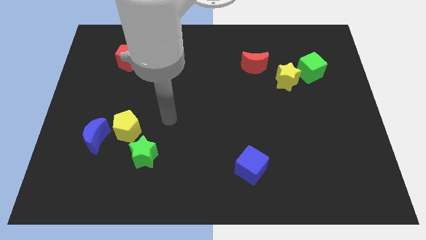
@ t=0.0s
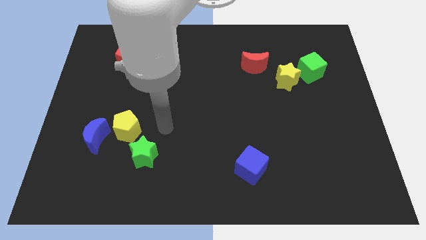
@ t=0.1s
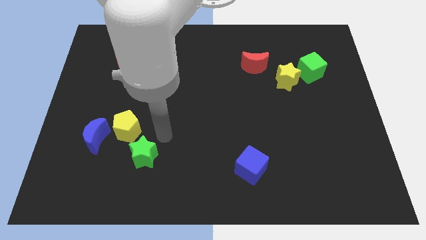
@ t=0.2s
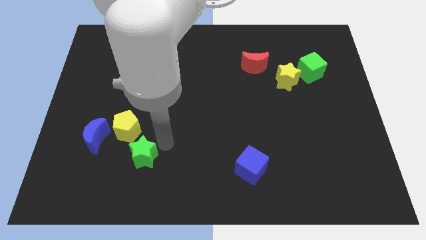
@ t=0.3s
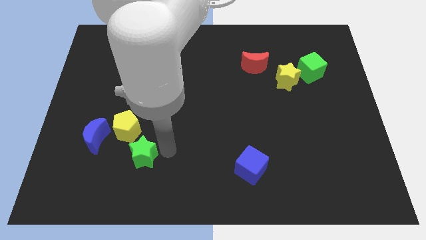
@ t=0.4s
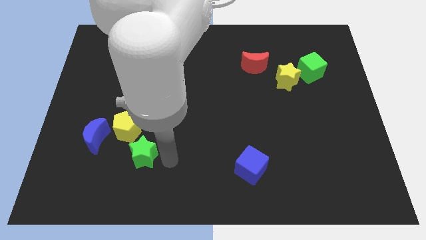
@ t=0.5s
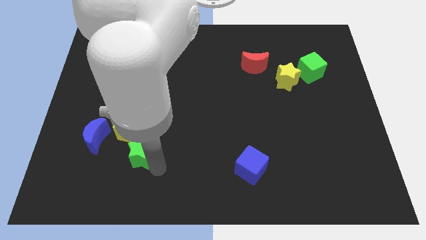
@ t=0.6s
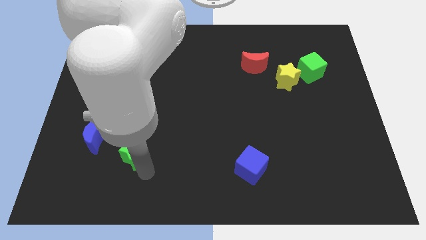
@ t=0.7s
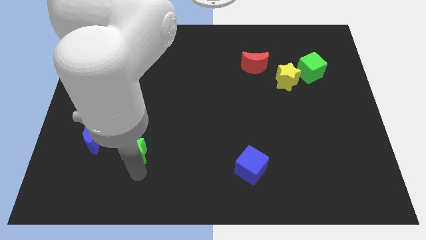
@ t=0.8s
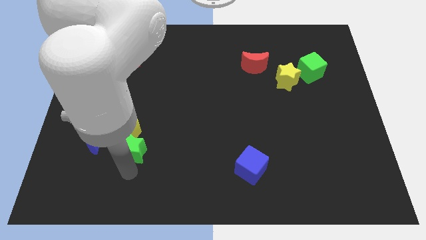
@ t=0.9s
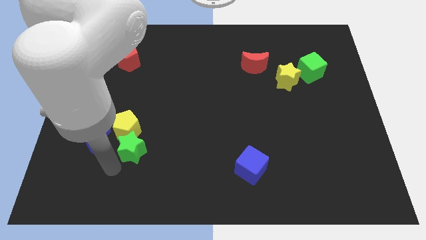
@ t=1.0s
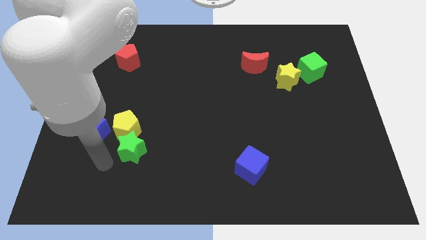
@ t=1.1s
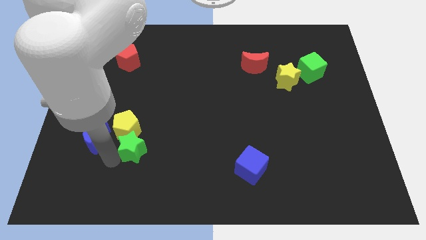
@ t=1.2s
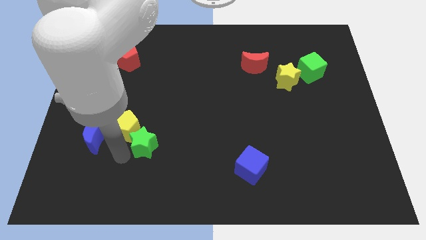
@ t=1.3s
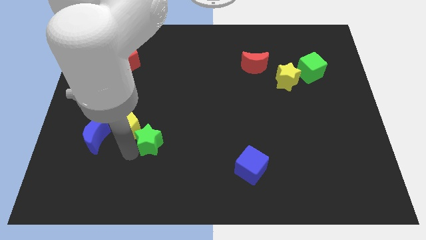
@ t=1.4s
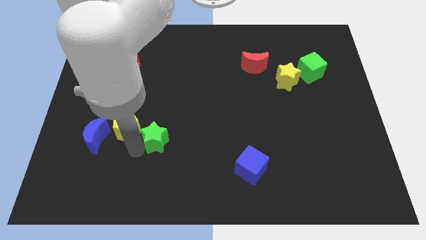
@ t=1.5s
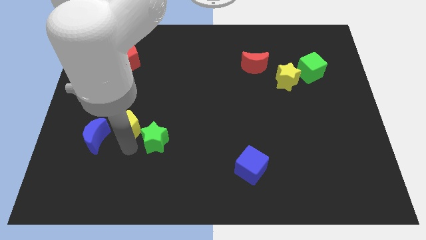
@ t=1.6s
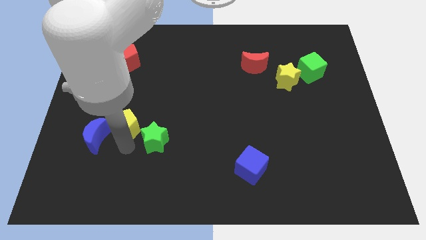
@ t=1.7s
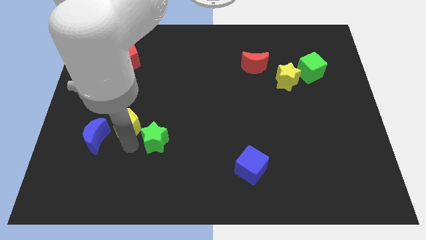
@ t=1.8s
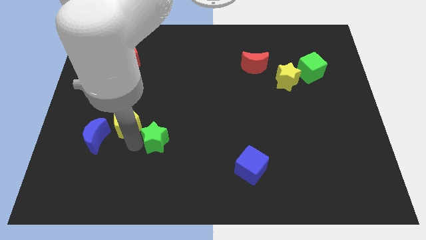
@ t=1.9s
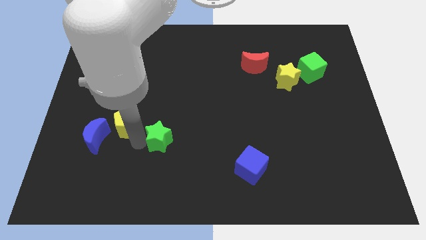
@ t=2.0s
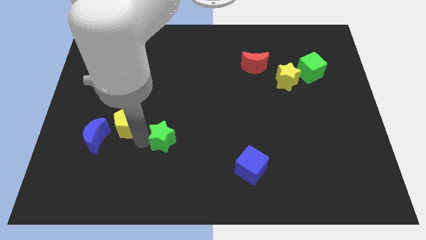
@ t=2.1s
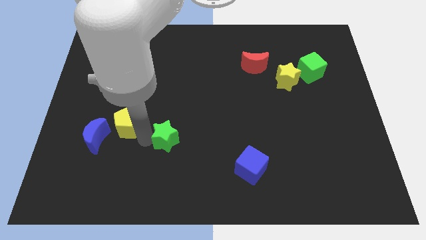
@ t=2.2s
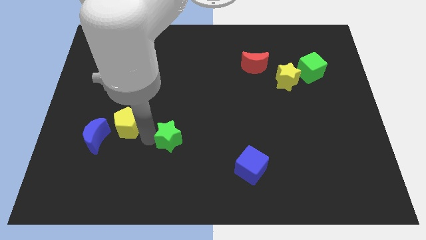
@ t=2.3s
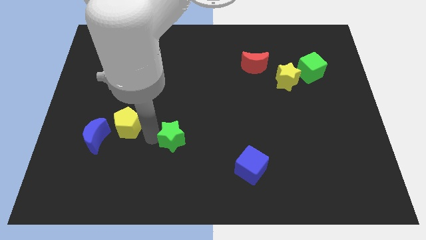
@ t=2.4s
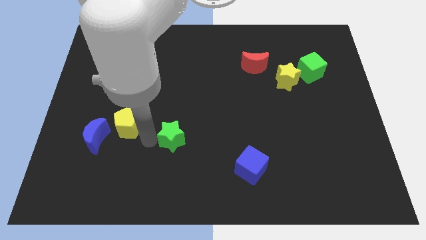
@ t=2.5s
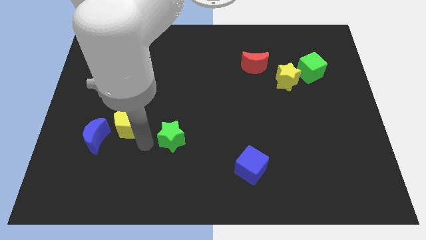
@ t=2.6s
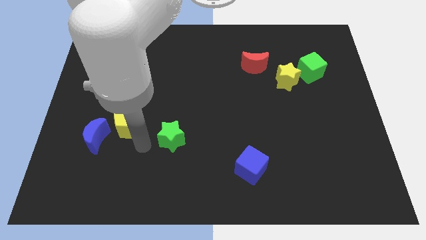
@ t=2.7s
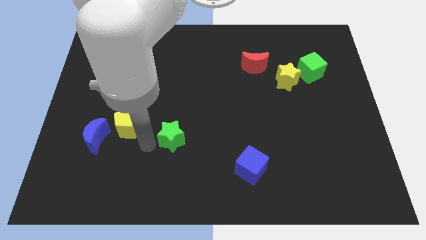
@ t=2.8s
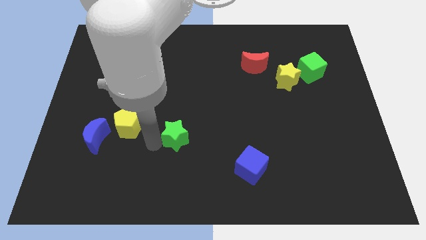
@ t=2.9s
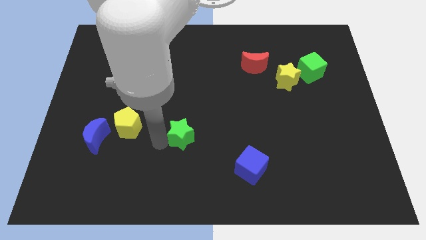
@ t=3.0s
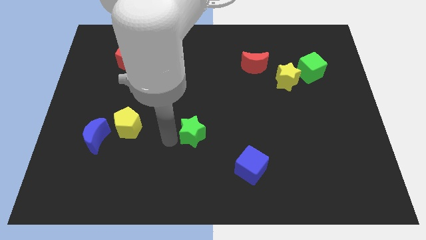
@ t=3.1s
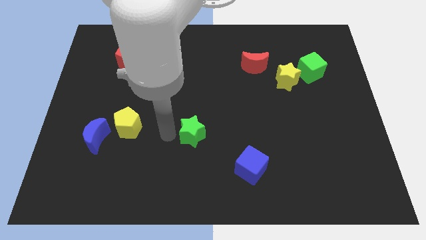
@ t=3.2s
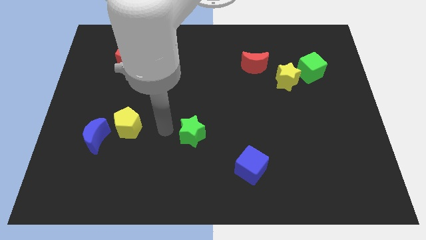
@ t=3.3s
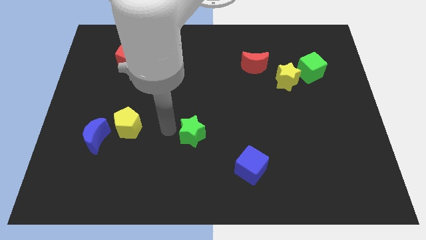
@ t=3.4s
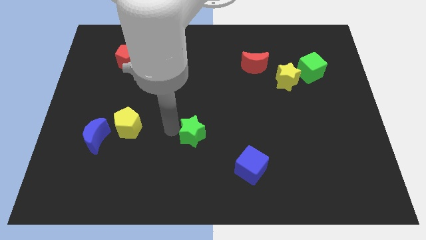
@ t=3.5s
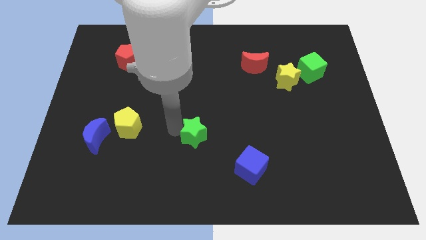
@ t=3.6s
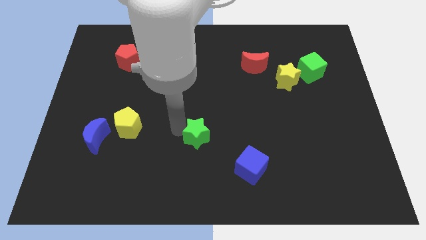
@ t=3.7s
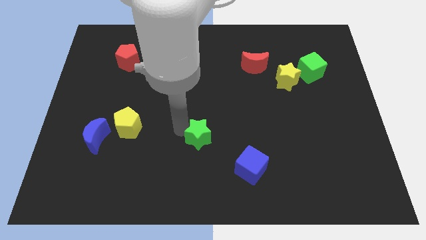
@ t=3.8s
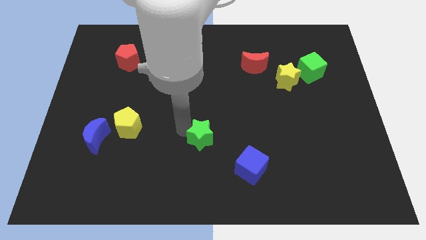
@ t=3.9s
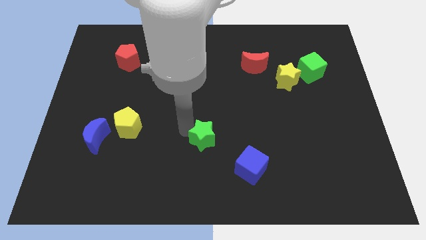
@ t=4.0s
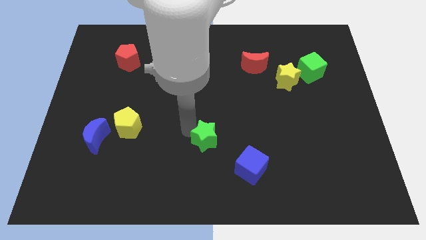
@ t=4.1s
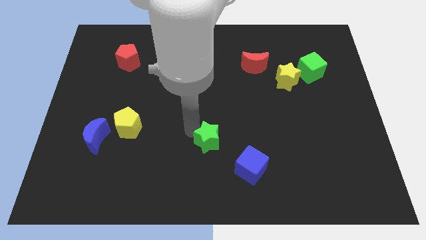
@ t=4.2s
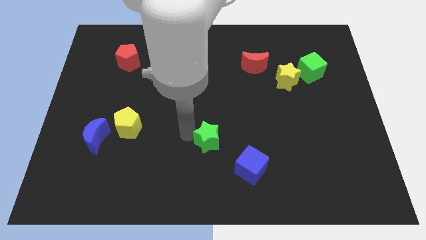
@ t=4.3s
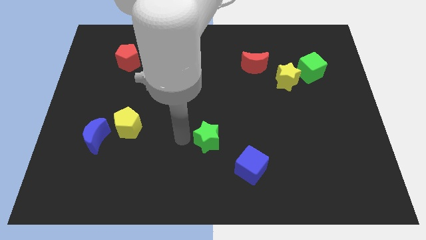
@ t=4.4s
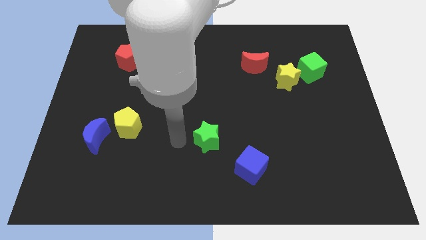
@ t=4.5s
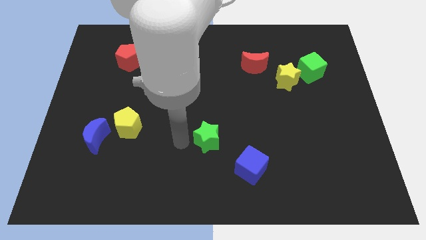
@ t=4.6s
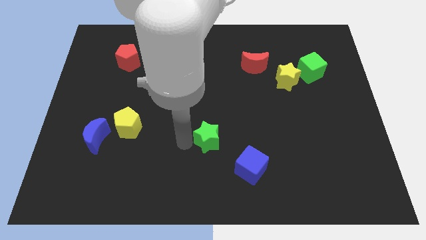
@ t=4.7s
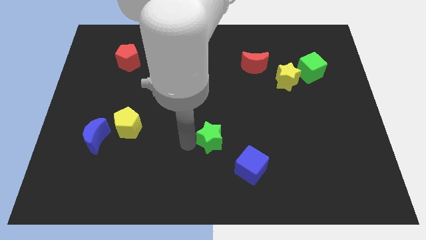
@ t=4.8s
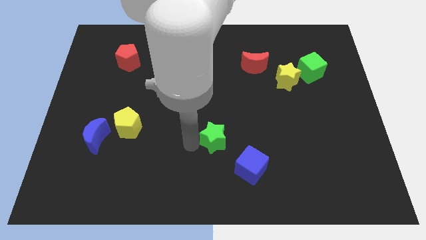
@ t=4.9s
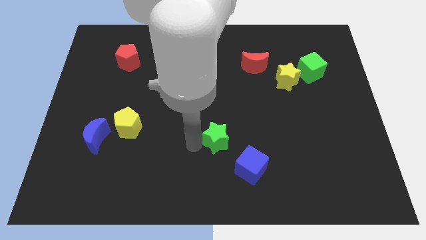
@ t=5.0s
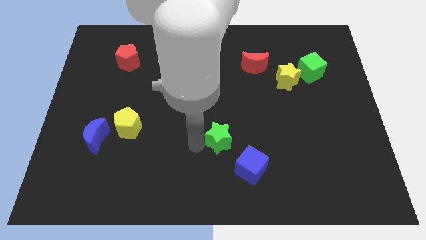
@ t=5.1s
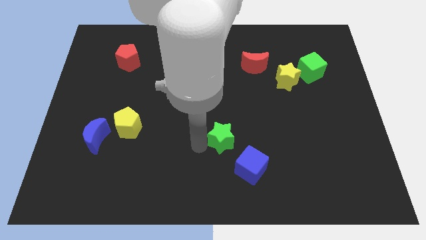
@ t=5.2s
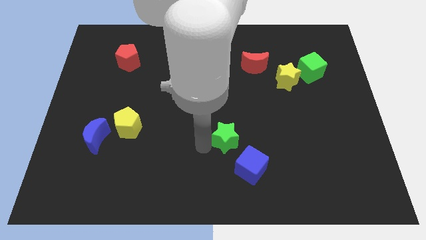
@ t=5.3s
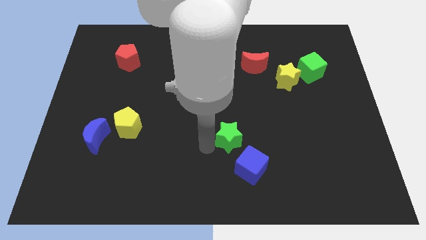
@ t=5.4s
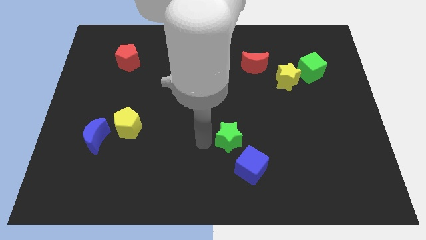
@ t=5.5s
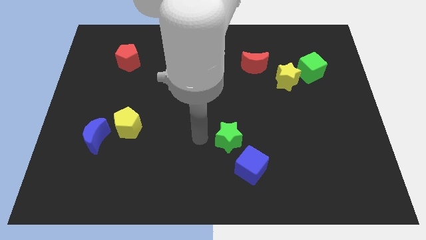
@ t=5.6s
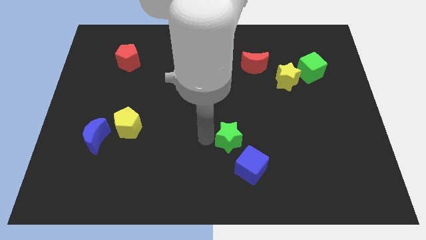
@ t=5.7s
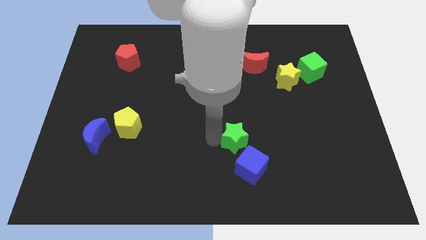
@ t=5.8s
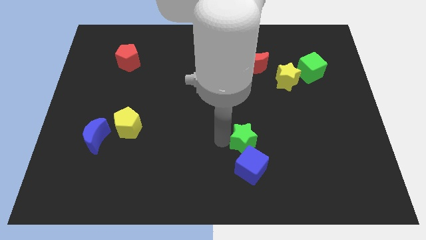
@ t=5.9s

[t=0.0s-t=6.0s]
push the green star to the right

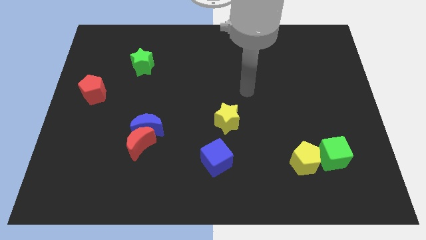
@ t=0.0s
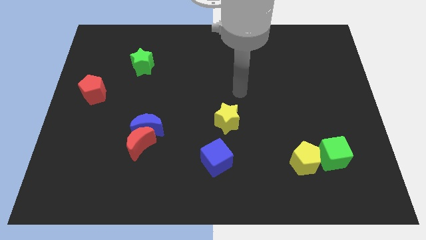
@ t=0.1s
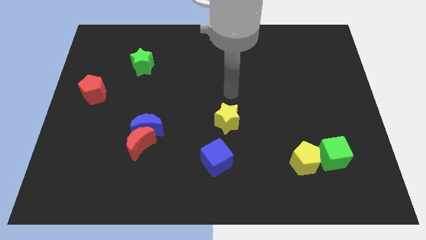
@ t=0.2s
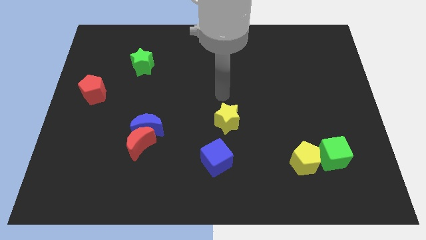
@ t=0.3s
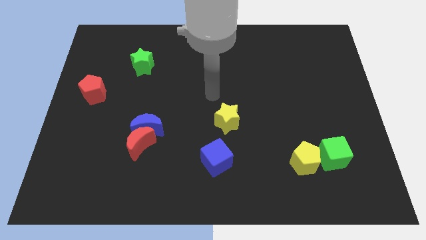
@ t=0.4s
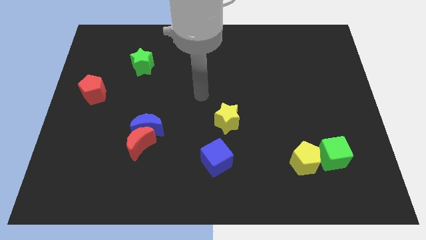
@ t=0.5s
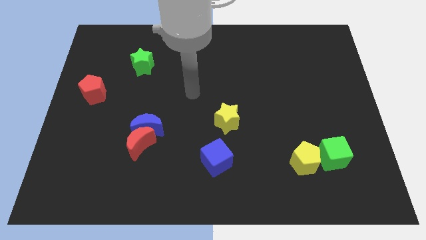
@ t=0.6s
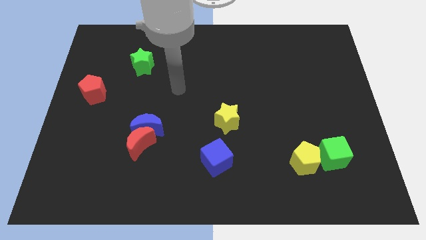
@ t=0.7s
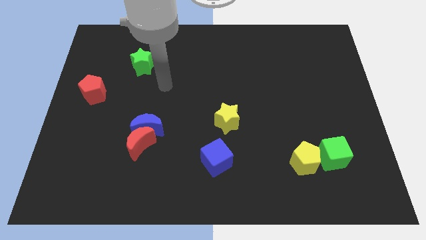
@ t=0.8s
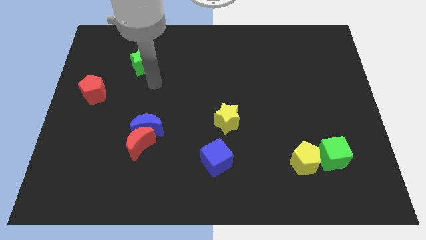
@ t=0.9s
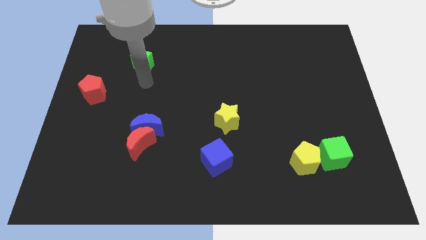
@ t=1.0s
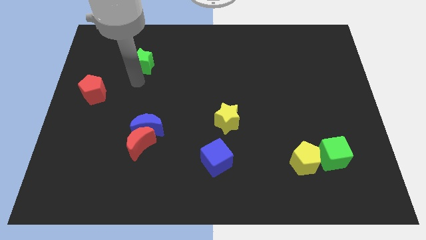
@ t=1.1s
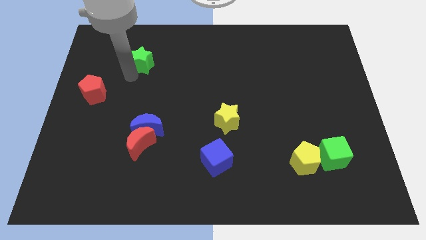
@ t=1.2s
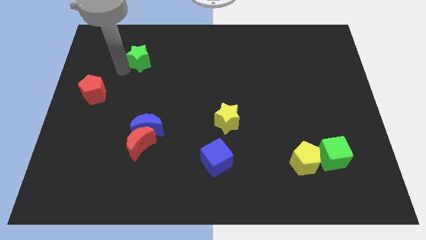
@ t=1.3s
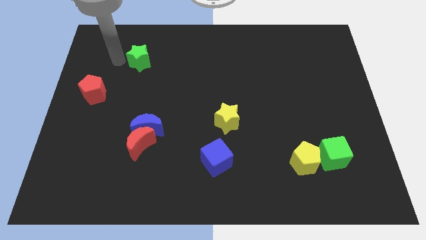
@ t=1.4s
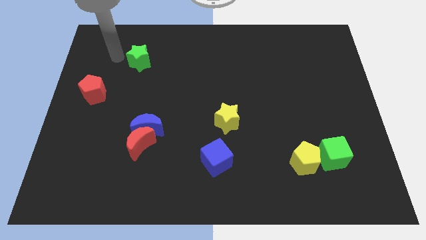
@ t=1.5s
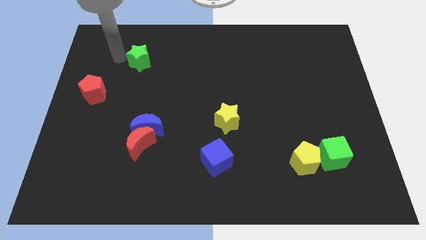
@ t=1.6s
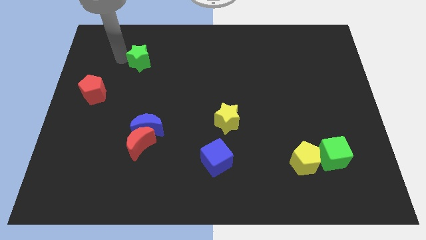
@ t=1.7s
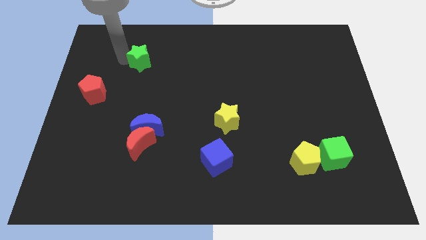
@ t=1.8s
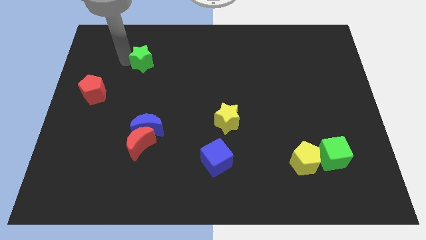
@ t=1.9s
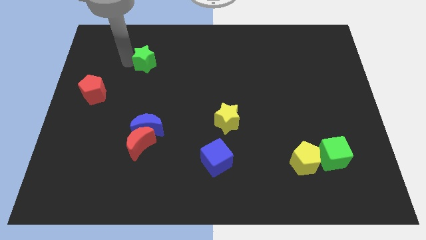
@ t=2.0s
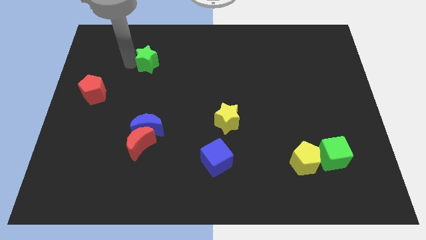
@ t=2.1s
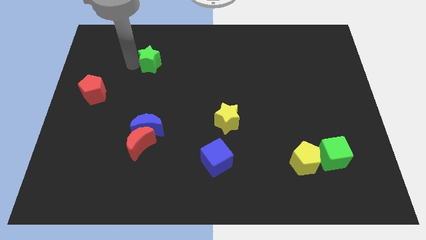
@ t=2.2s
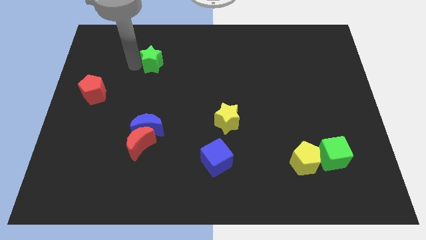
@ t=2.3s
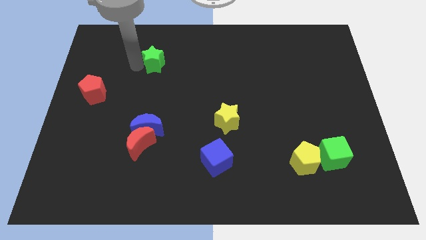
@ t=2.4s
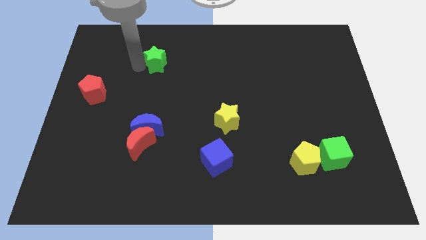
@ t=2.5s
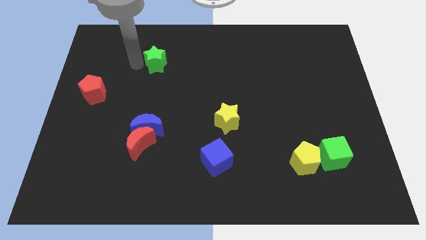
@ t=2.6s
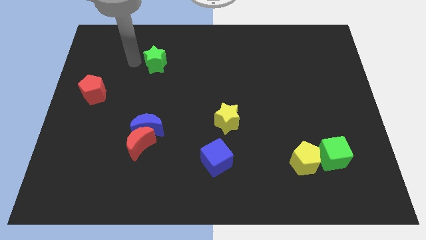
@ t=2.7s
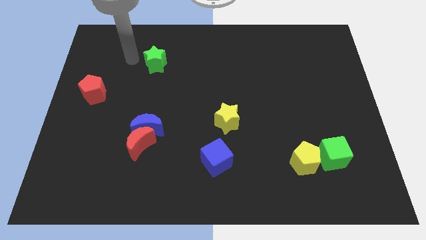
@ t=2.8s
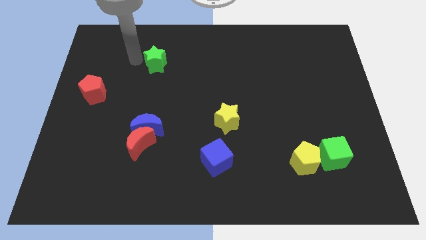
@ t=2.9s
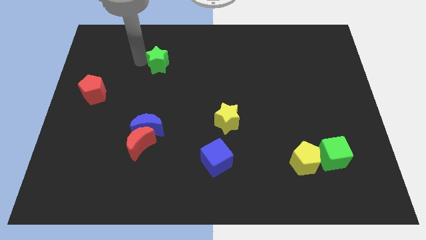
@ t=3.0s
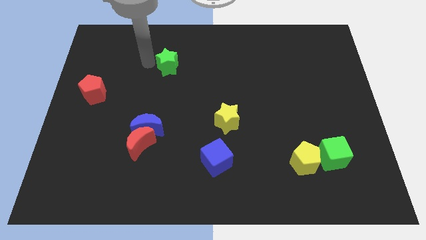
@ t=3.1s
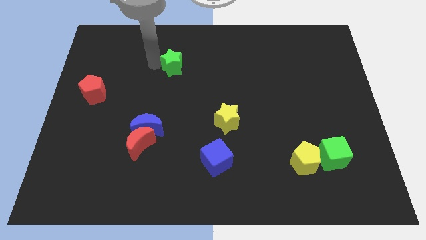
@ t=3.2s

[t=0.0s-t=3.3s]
slightly move the green star right
